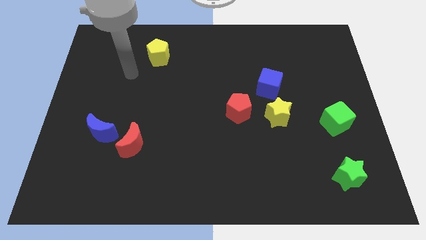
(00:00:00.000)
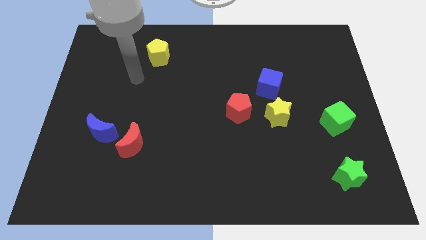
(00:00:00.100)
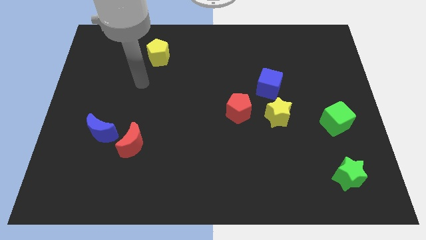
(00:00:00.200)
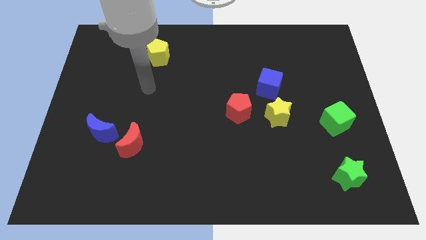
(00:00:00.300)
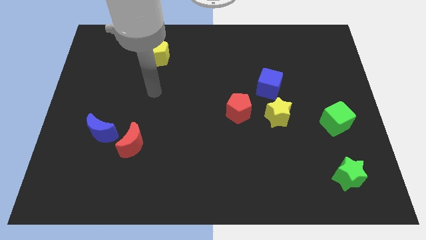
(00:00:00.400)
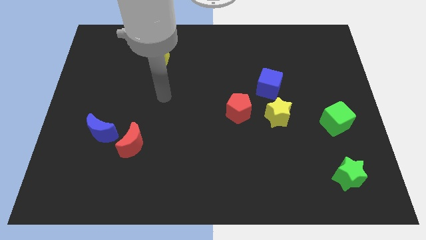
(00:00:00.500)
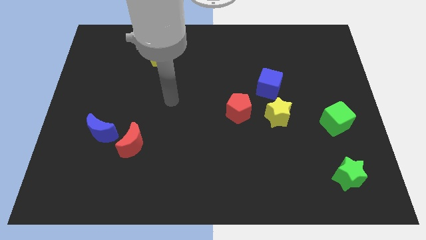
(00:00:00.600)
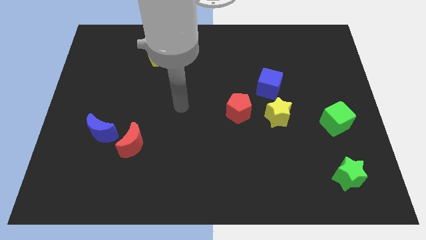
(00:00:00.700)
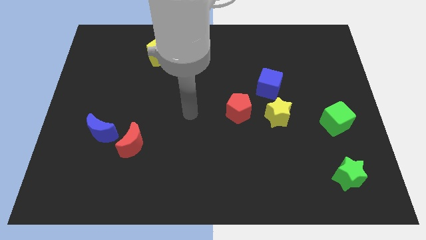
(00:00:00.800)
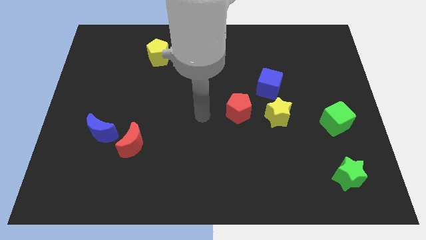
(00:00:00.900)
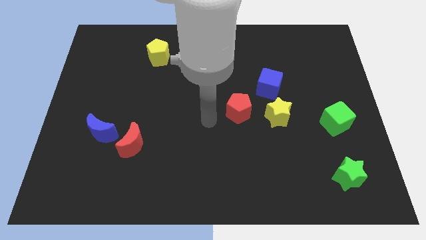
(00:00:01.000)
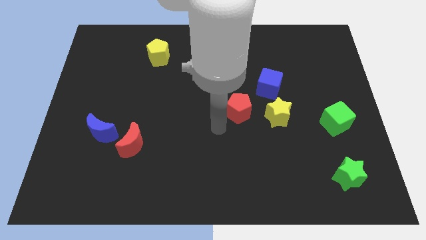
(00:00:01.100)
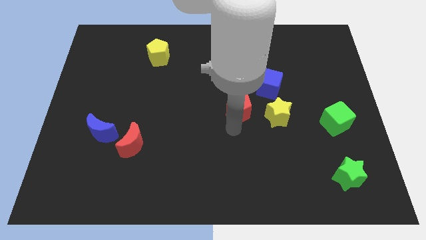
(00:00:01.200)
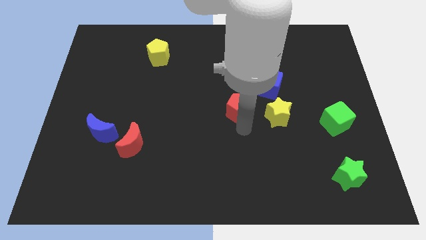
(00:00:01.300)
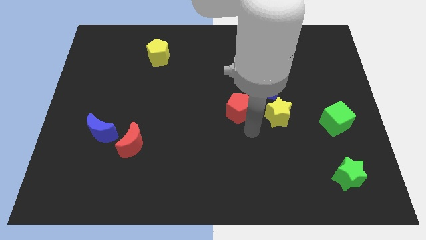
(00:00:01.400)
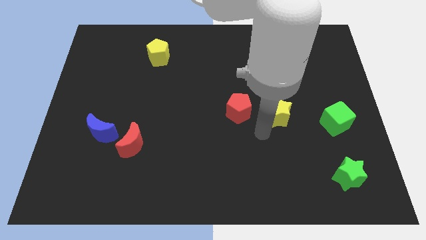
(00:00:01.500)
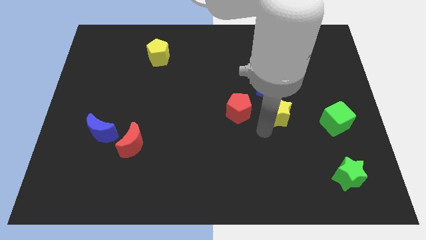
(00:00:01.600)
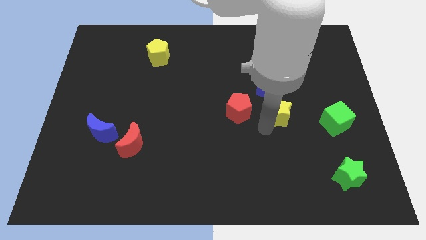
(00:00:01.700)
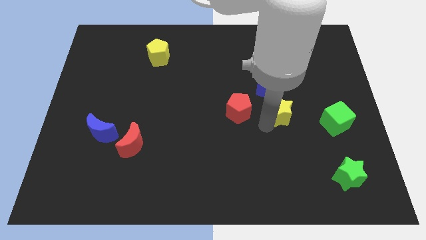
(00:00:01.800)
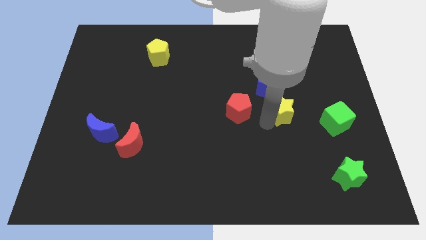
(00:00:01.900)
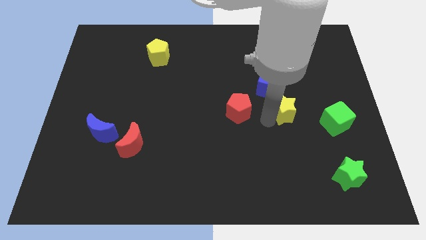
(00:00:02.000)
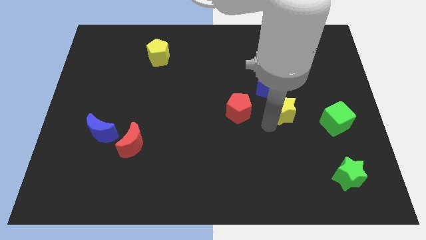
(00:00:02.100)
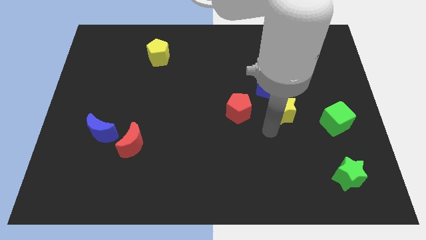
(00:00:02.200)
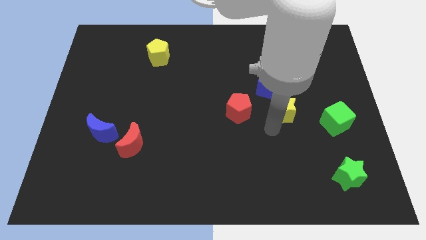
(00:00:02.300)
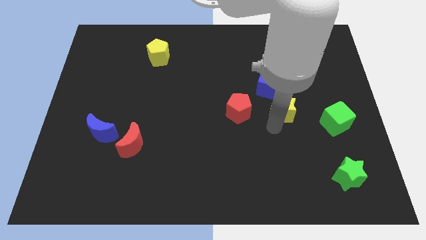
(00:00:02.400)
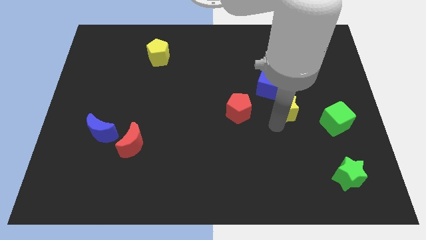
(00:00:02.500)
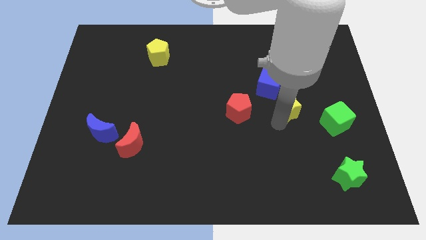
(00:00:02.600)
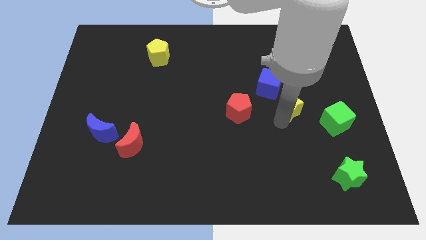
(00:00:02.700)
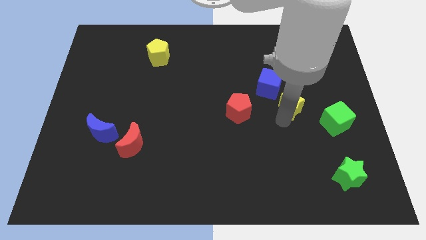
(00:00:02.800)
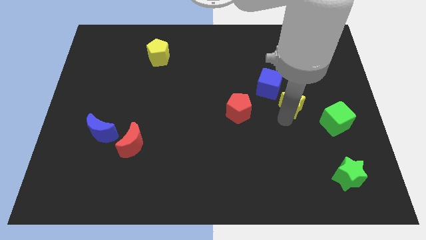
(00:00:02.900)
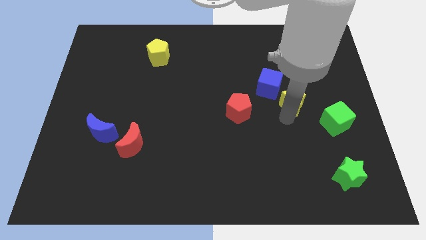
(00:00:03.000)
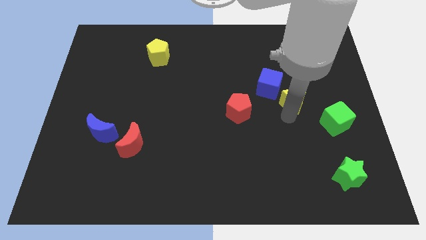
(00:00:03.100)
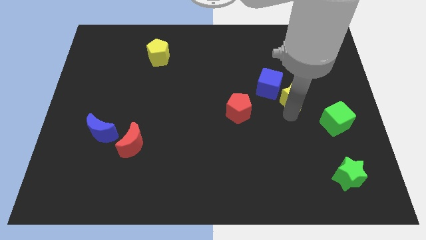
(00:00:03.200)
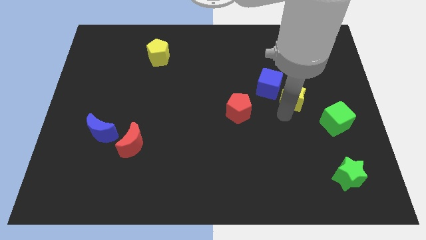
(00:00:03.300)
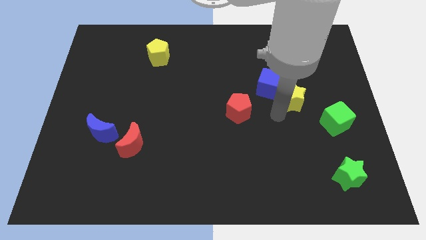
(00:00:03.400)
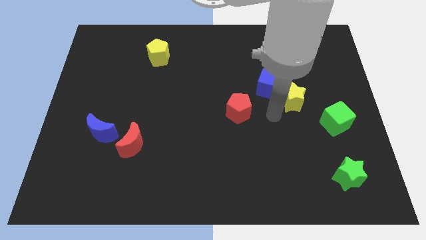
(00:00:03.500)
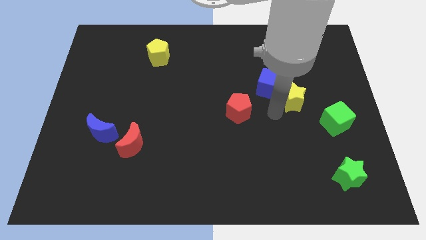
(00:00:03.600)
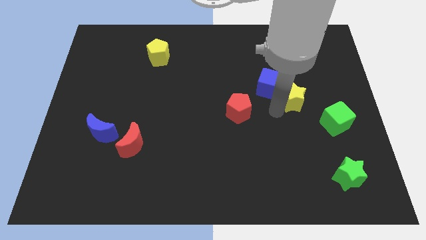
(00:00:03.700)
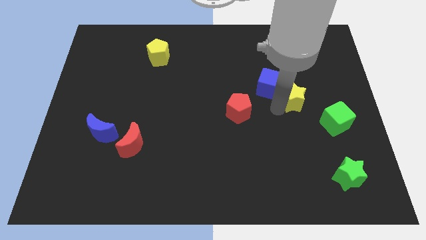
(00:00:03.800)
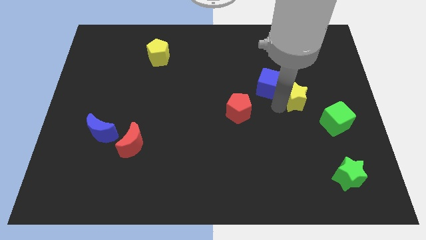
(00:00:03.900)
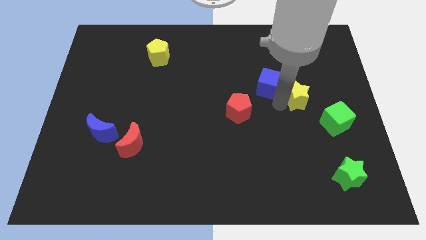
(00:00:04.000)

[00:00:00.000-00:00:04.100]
slightly push the yellow star diagonally up and to the right

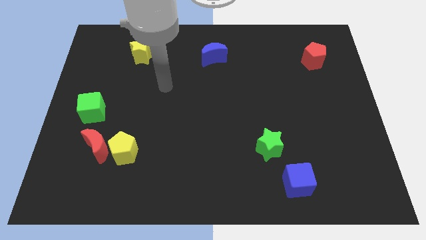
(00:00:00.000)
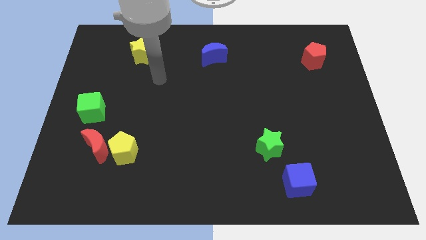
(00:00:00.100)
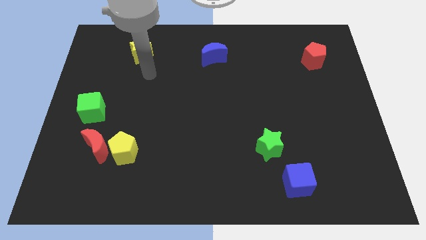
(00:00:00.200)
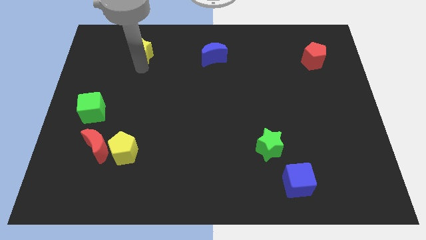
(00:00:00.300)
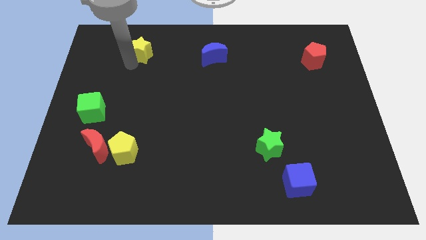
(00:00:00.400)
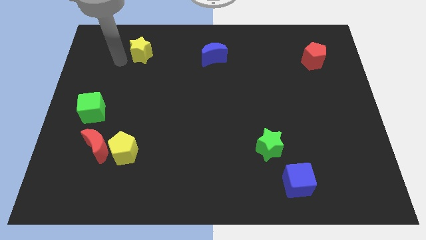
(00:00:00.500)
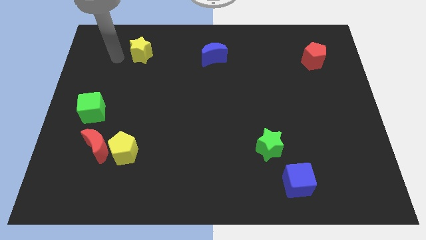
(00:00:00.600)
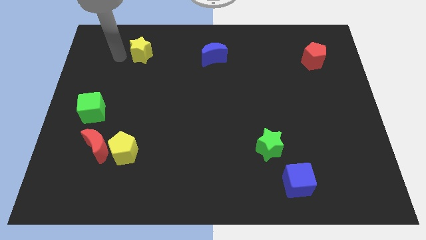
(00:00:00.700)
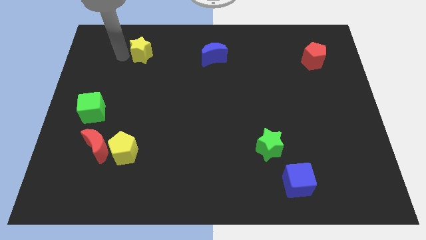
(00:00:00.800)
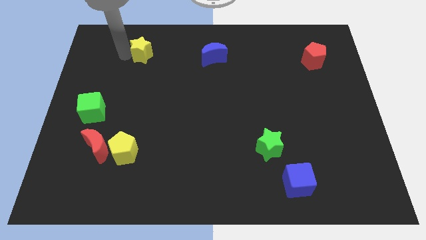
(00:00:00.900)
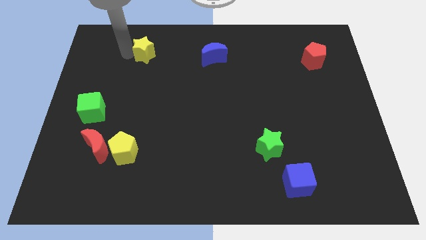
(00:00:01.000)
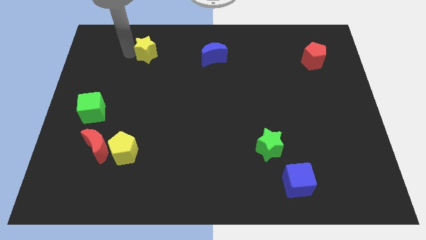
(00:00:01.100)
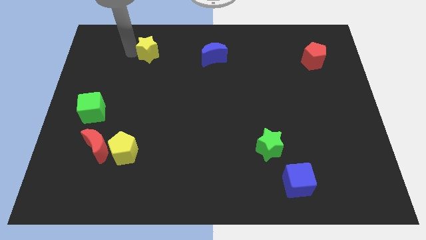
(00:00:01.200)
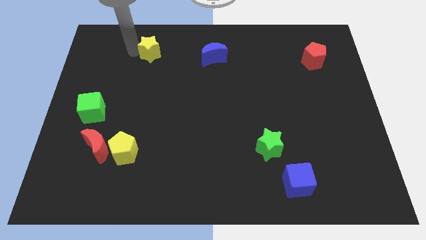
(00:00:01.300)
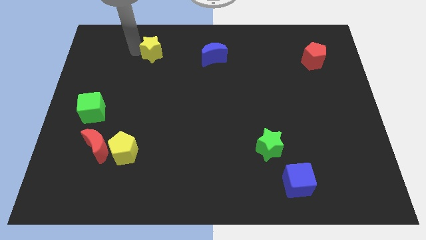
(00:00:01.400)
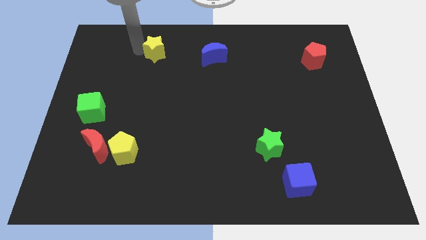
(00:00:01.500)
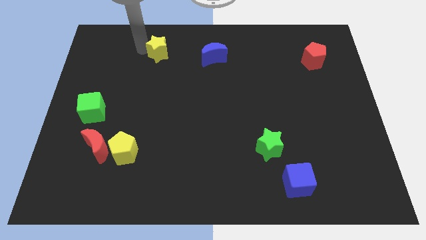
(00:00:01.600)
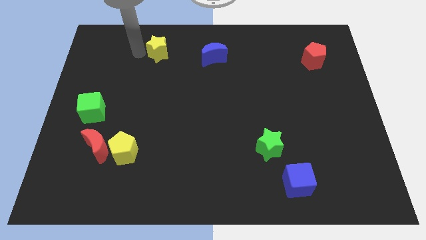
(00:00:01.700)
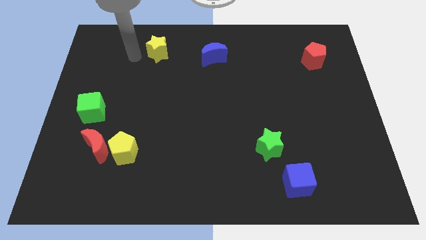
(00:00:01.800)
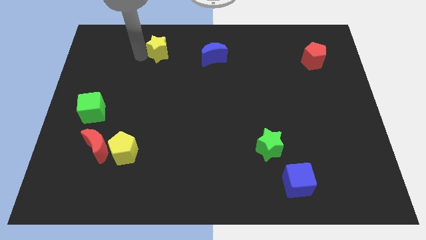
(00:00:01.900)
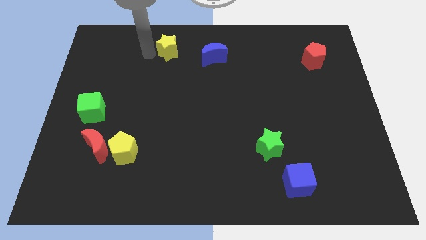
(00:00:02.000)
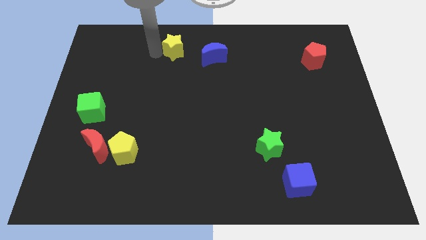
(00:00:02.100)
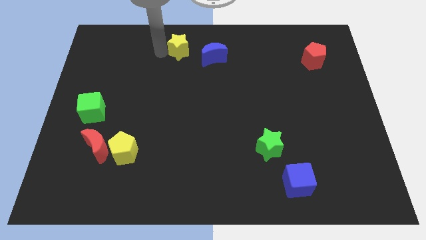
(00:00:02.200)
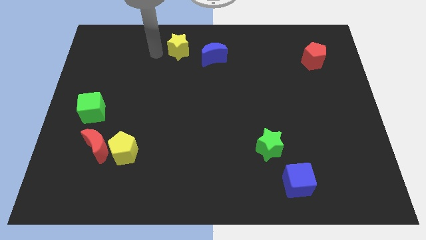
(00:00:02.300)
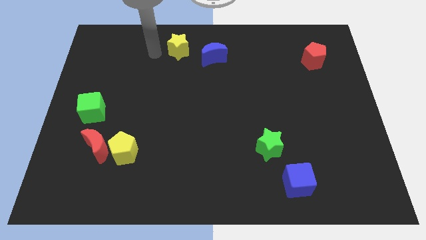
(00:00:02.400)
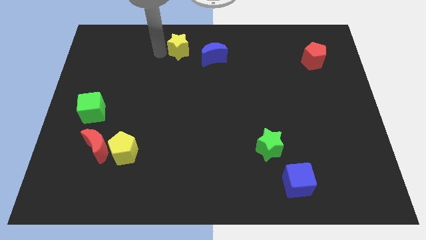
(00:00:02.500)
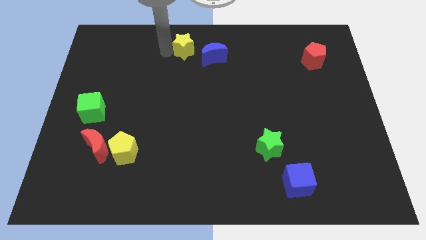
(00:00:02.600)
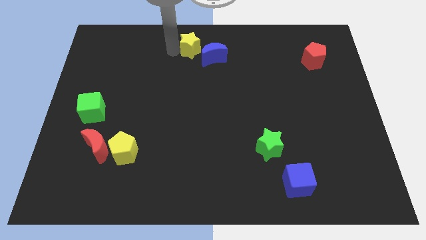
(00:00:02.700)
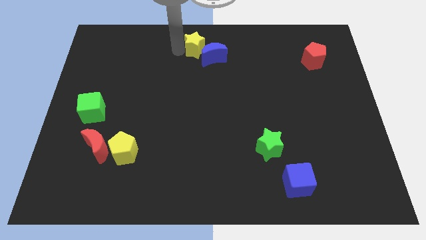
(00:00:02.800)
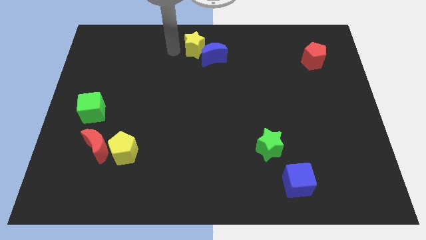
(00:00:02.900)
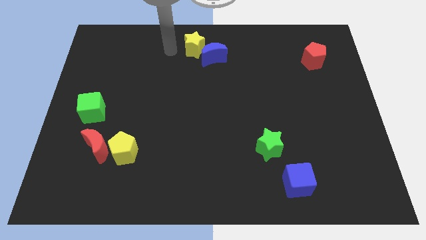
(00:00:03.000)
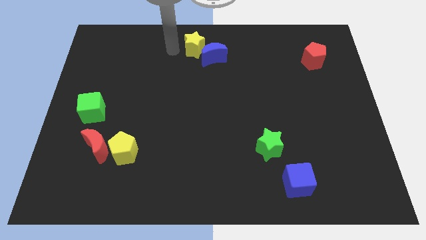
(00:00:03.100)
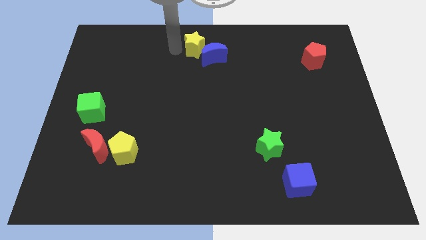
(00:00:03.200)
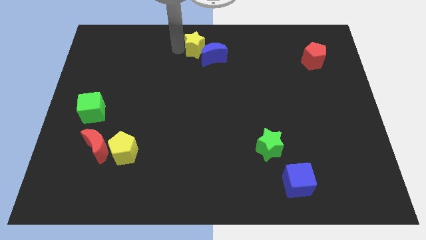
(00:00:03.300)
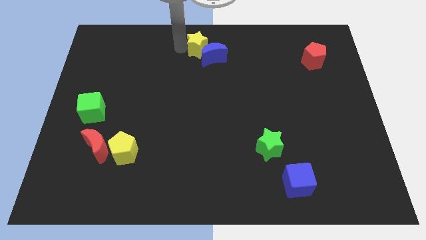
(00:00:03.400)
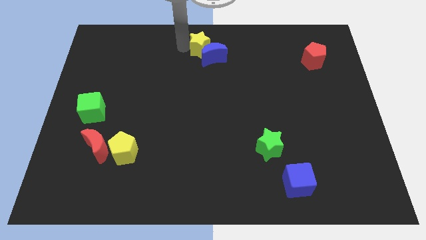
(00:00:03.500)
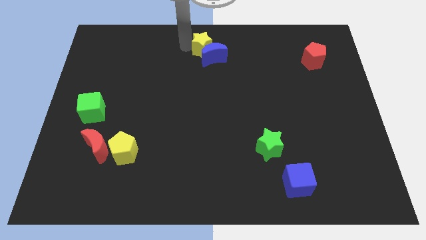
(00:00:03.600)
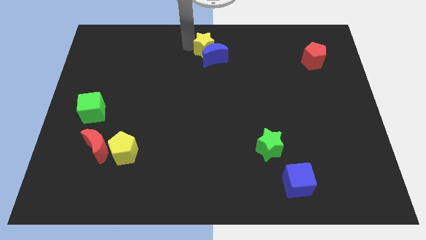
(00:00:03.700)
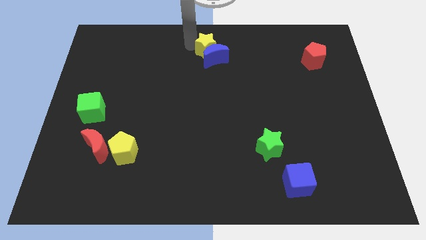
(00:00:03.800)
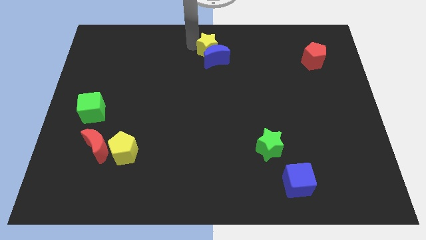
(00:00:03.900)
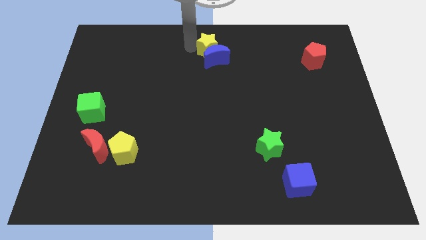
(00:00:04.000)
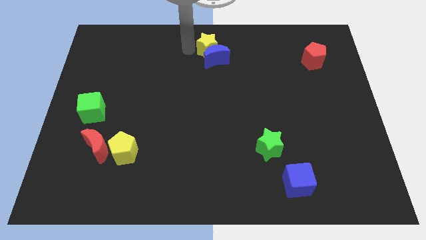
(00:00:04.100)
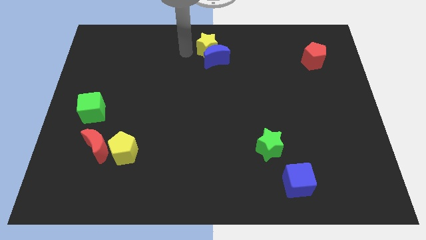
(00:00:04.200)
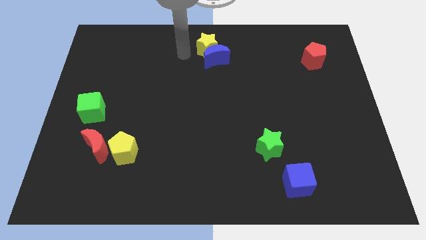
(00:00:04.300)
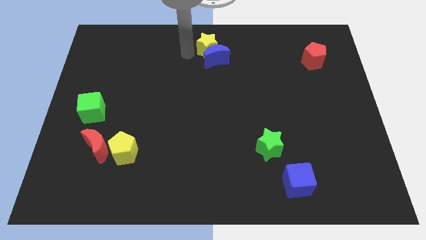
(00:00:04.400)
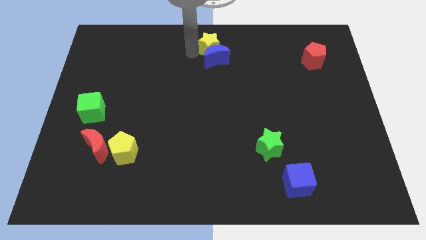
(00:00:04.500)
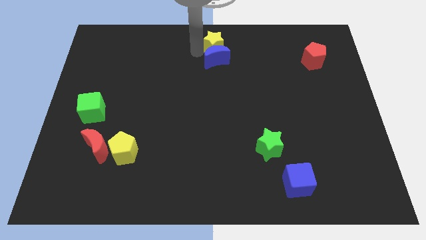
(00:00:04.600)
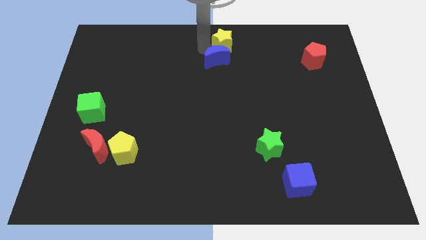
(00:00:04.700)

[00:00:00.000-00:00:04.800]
slide the yellow star to the right
